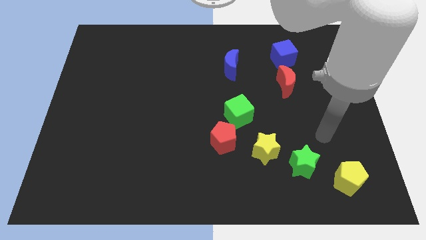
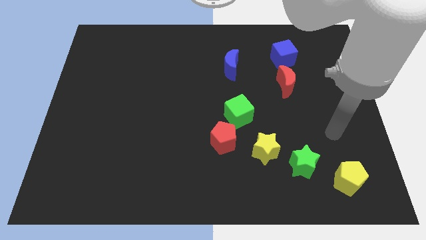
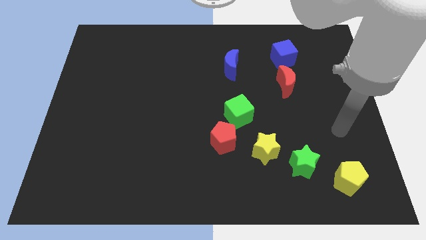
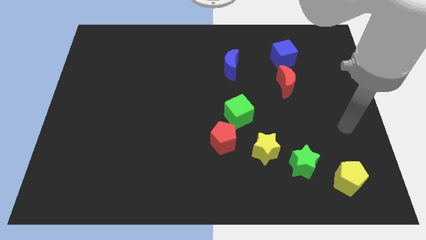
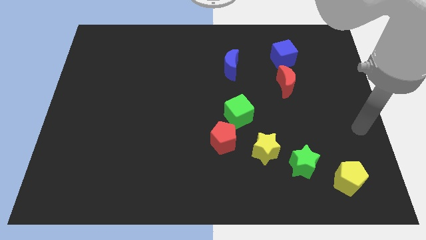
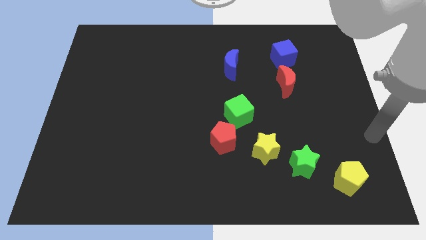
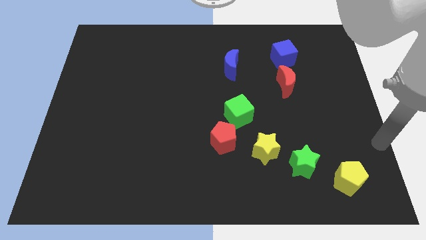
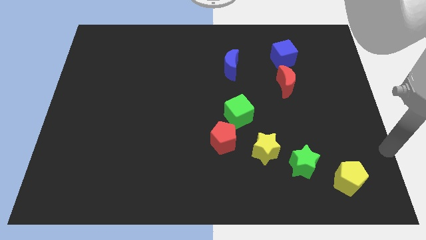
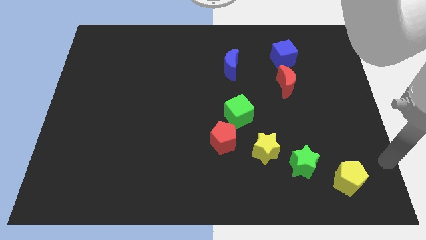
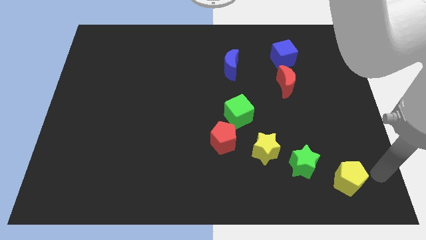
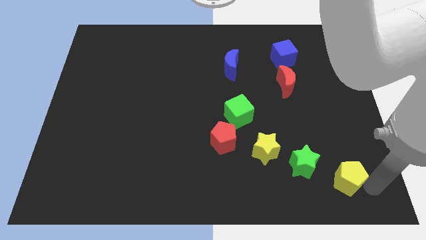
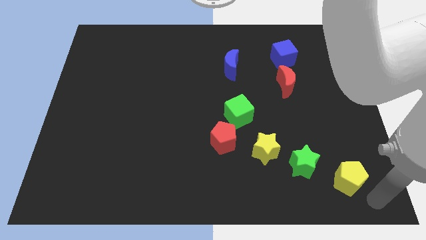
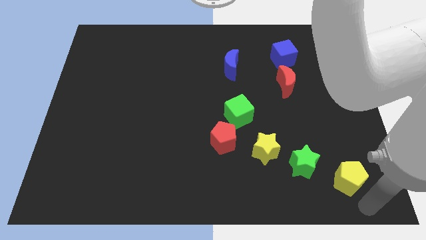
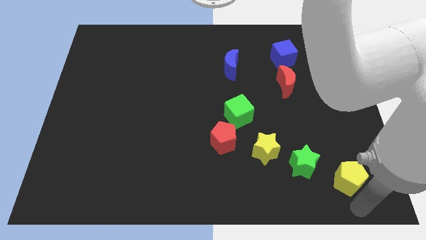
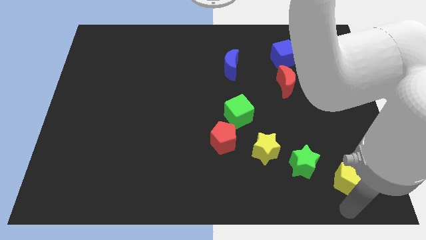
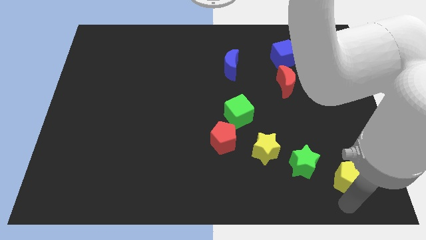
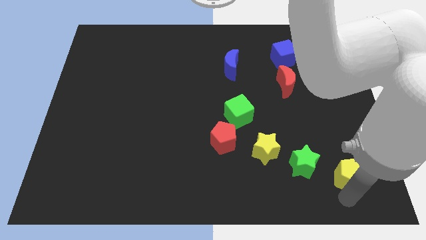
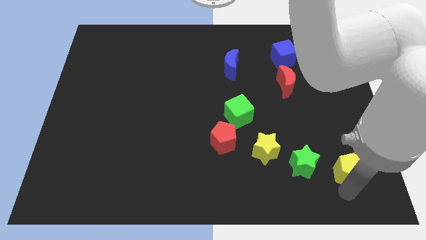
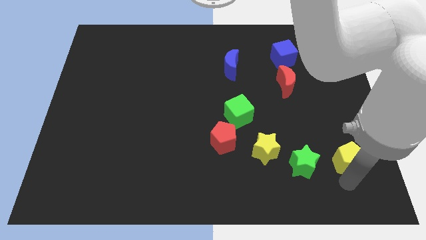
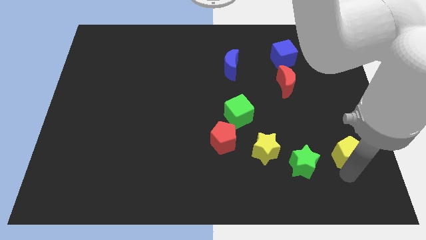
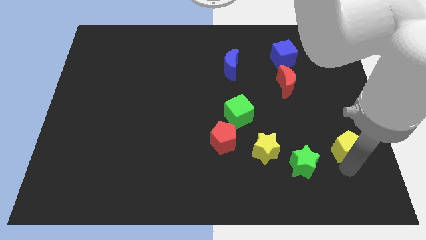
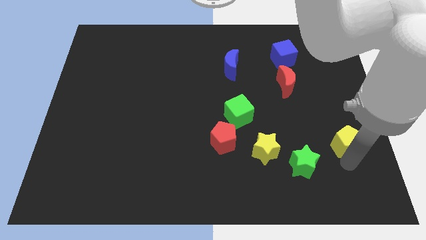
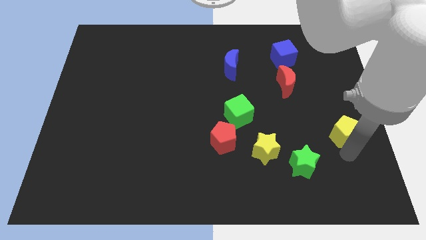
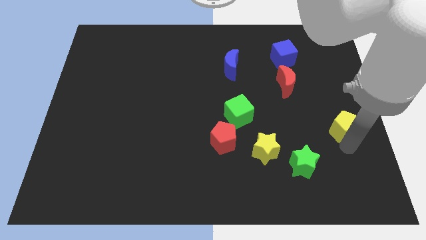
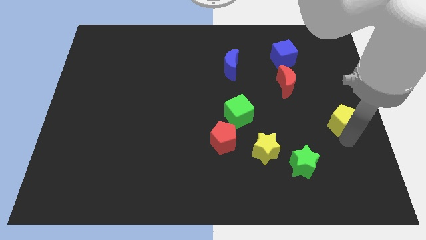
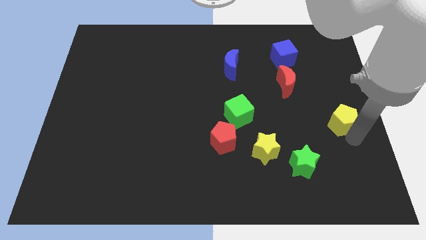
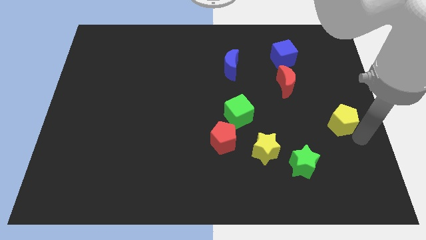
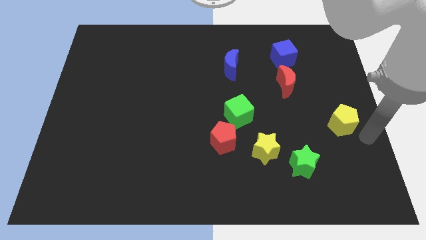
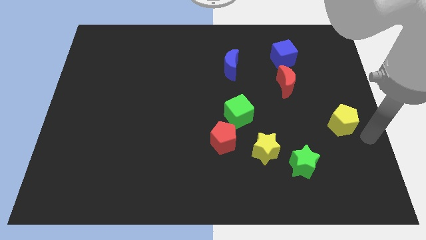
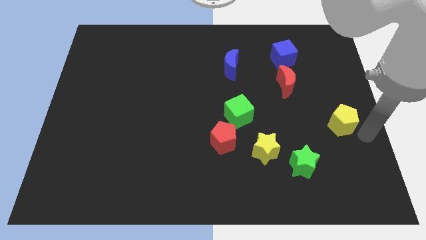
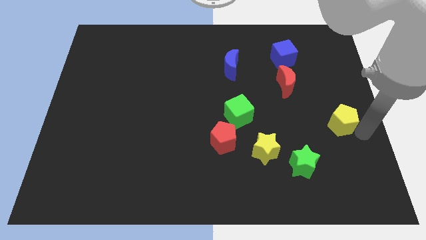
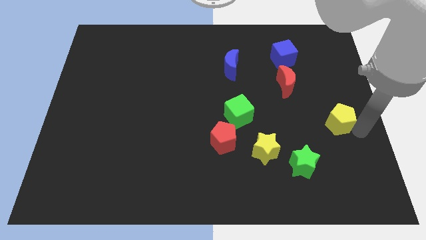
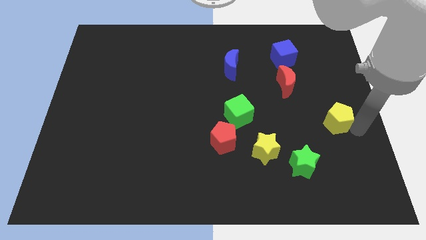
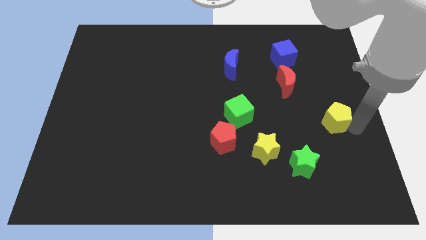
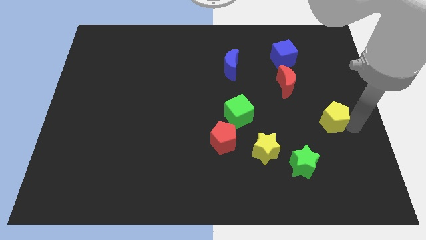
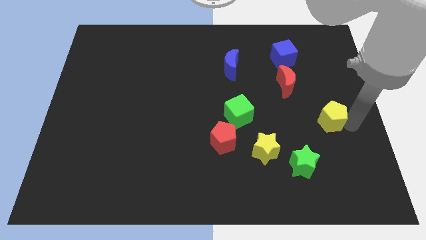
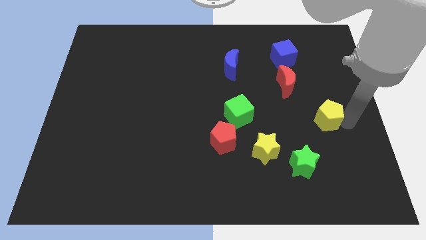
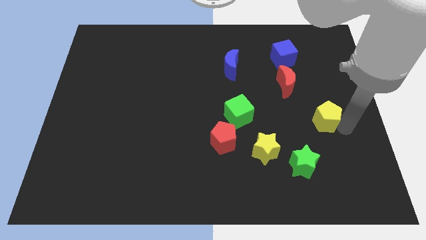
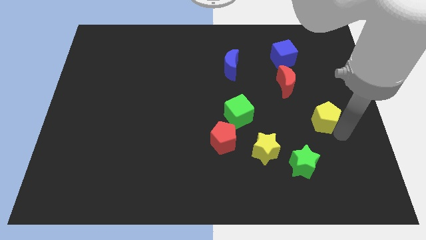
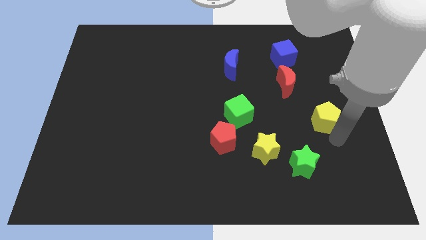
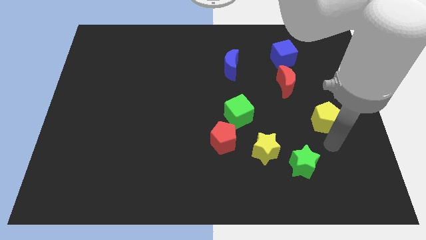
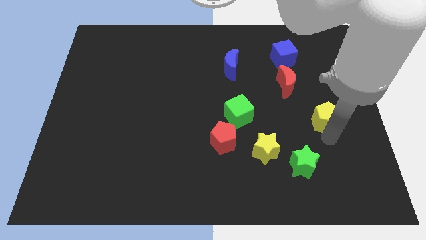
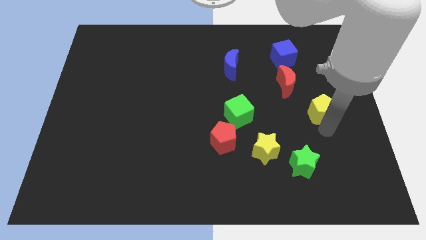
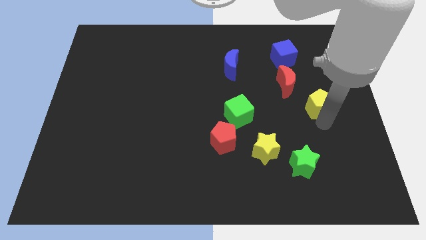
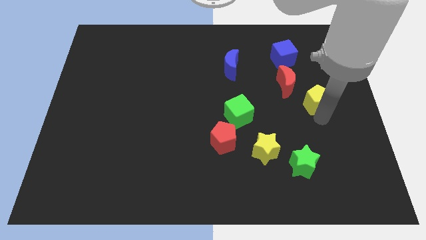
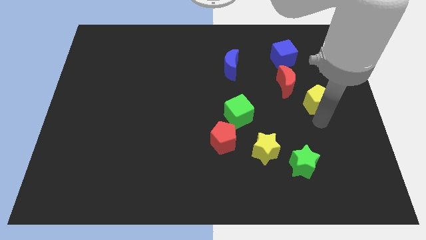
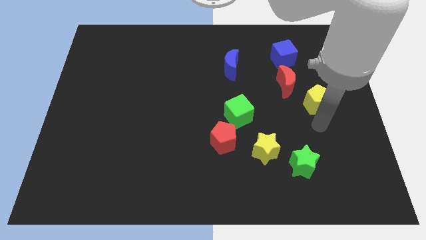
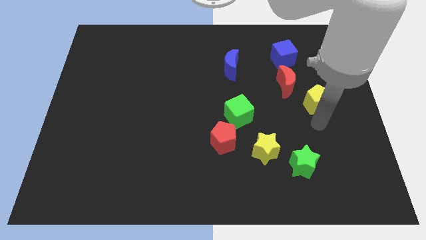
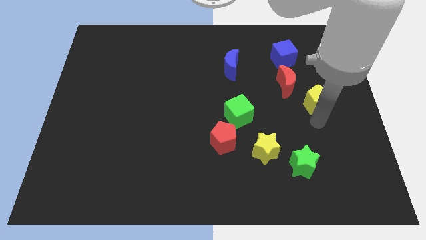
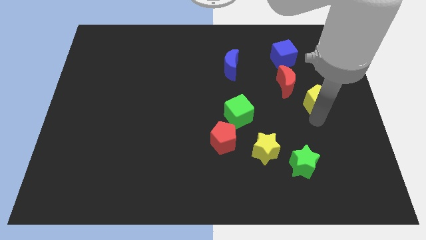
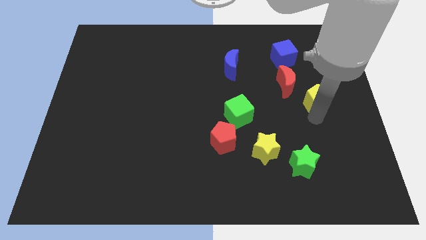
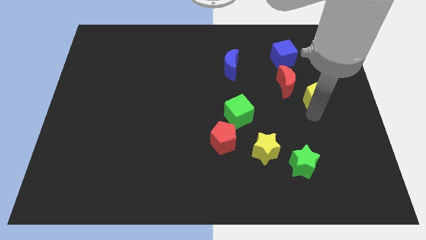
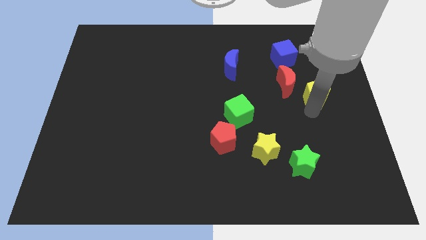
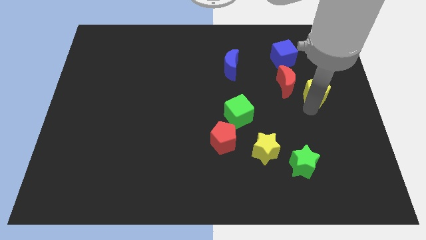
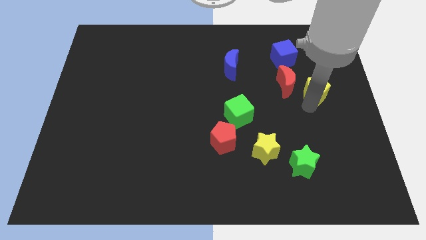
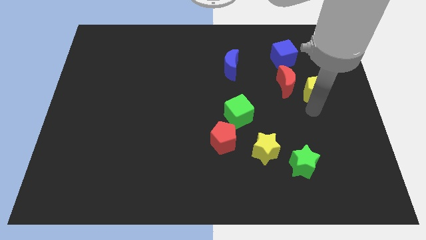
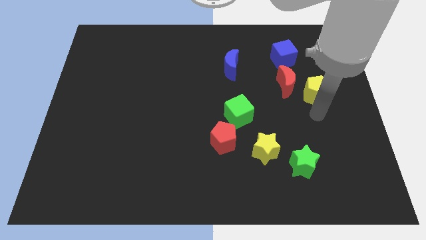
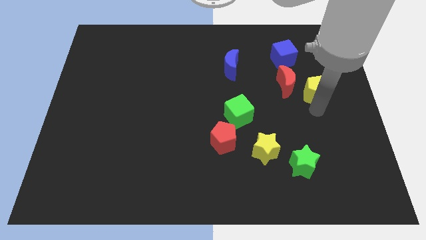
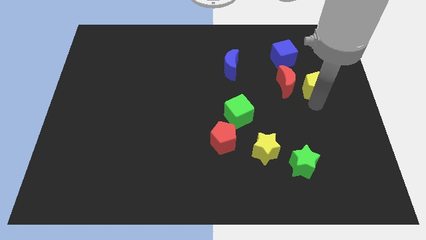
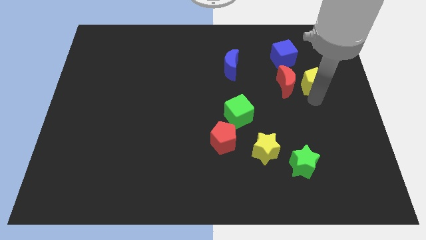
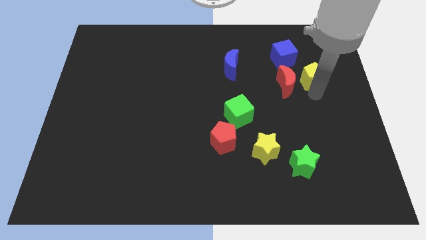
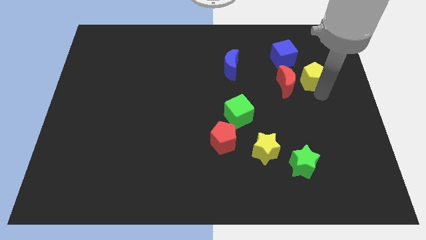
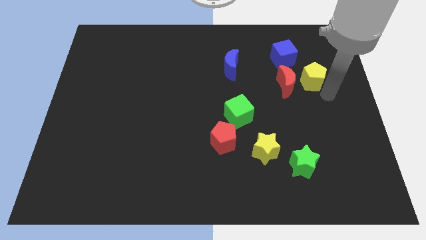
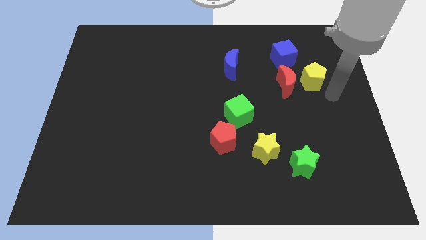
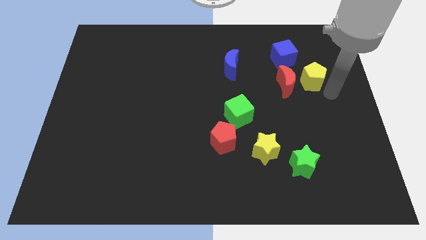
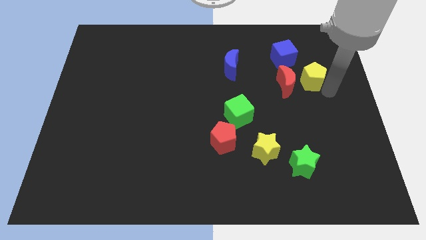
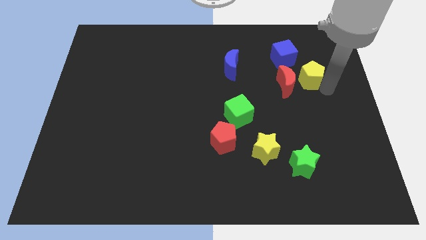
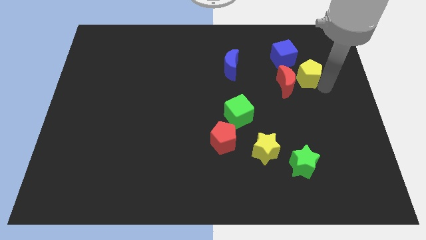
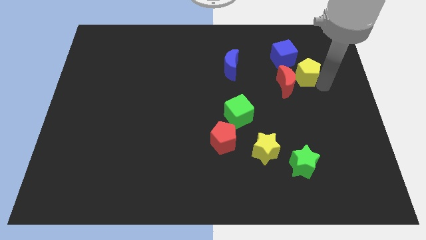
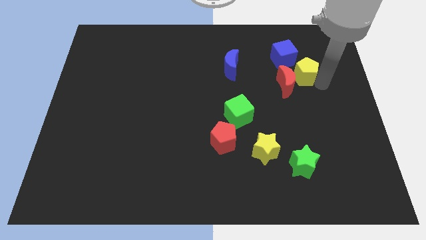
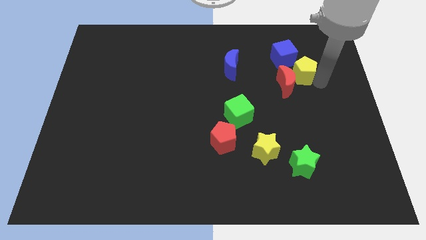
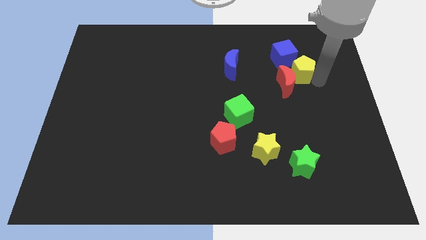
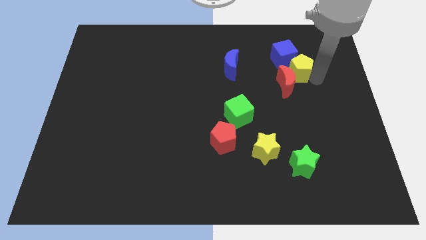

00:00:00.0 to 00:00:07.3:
move the yellow pentagon to the blue cube

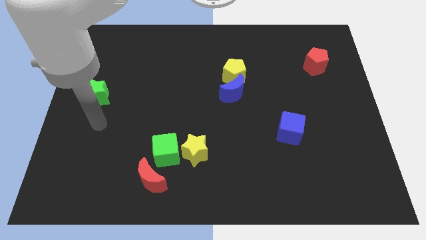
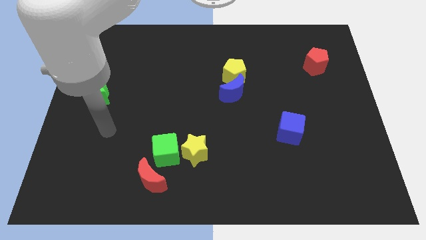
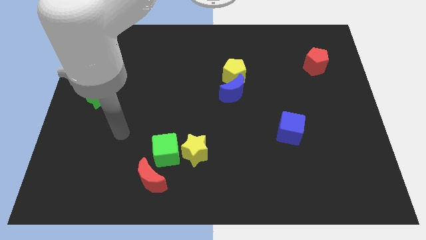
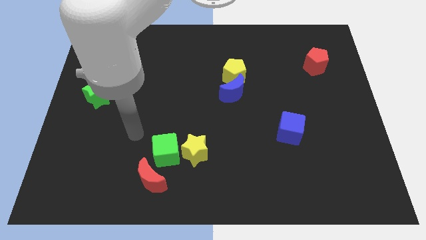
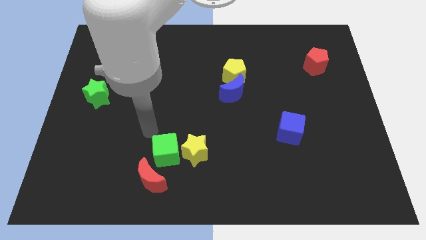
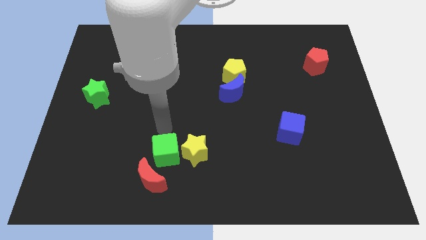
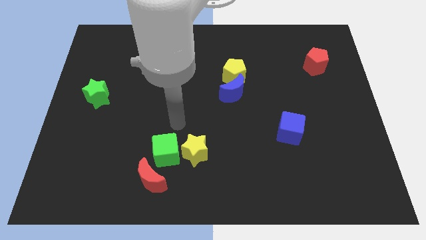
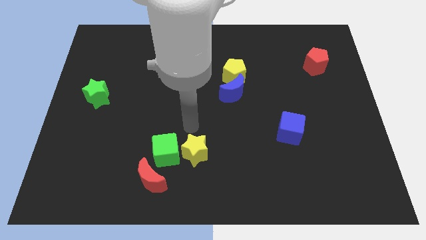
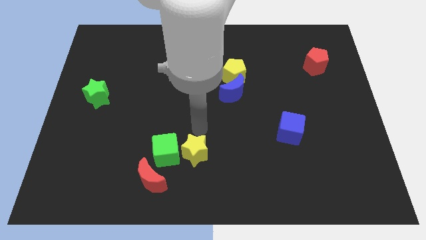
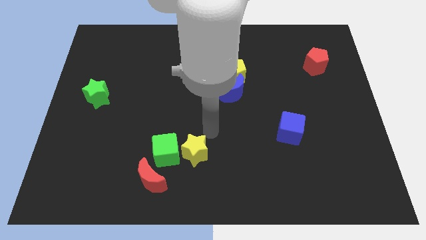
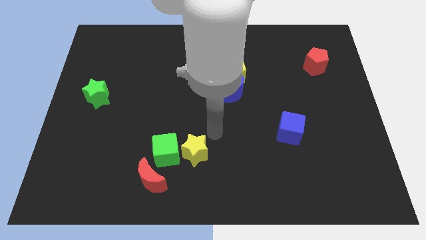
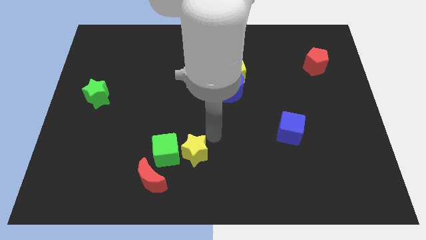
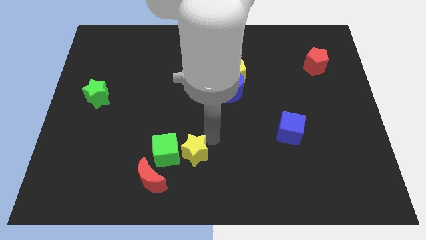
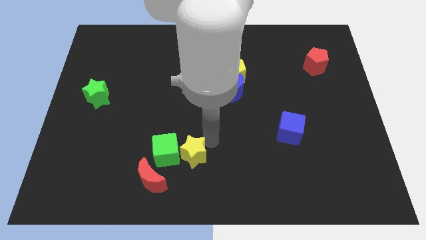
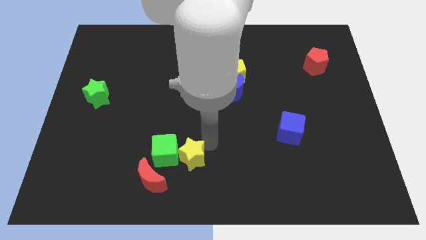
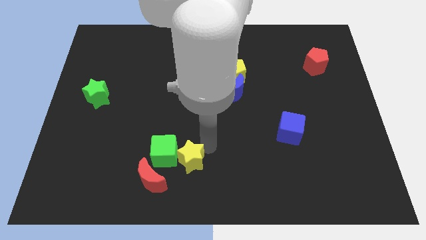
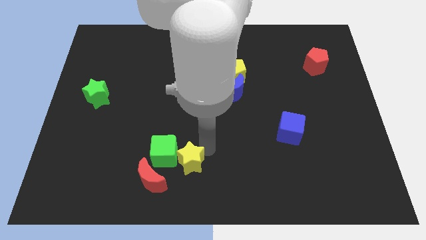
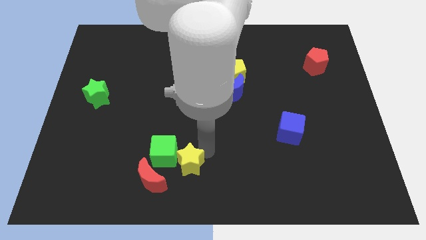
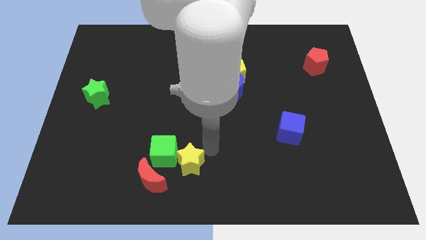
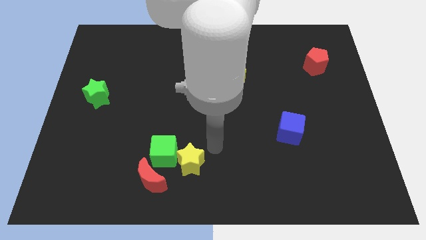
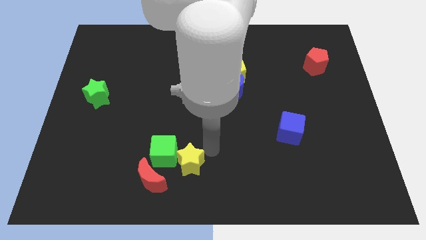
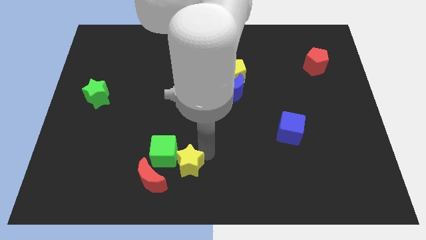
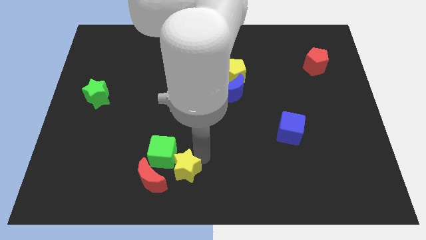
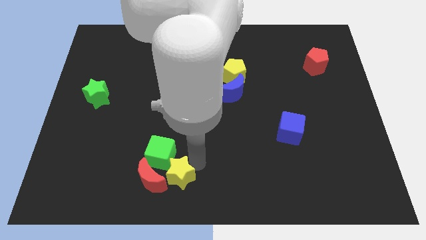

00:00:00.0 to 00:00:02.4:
put the yellow star next to the red moon
